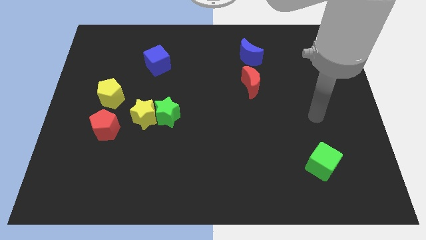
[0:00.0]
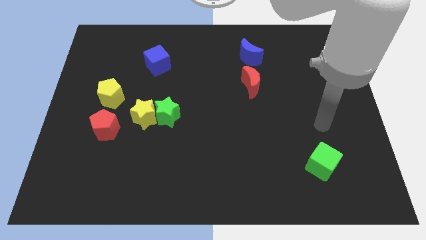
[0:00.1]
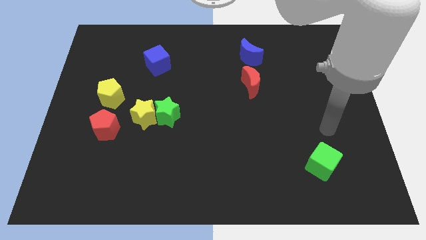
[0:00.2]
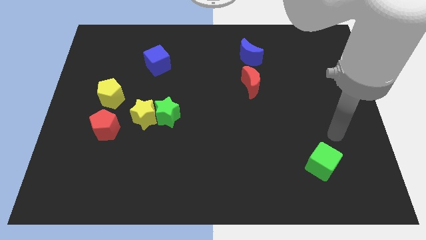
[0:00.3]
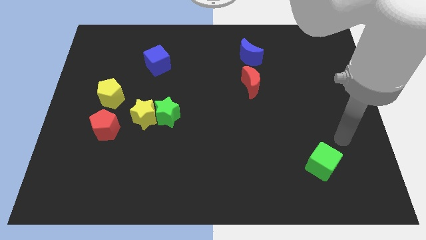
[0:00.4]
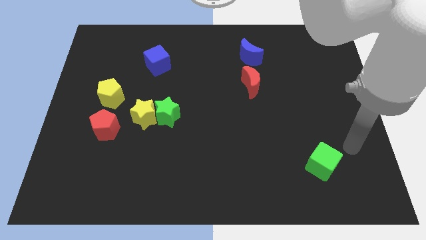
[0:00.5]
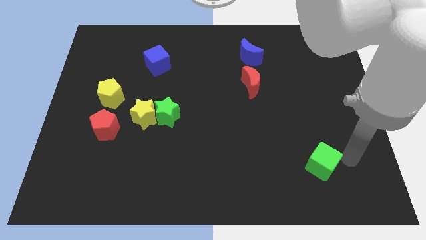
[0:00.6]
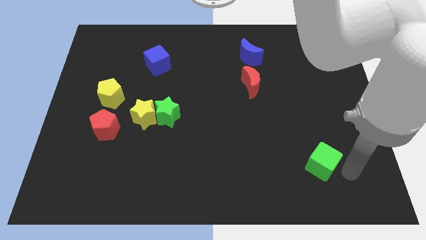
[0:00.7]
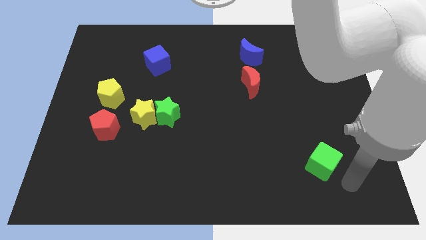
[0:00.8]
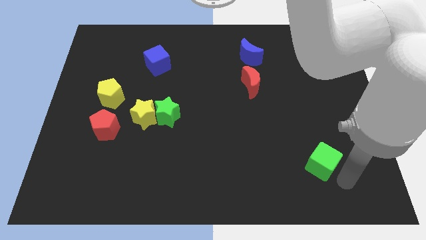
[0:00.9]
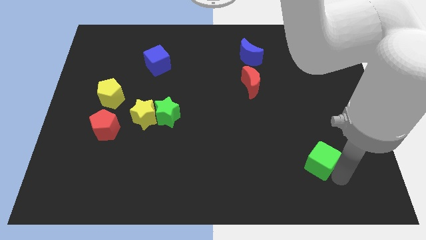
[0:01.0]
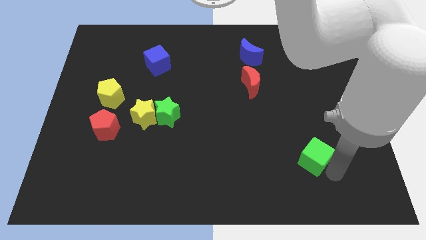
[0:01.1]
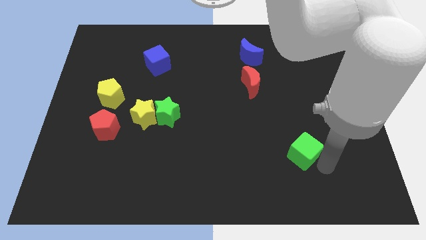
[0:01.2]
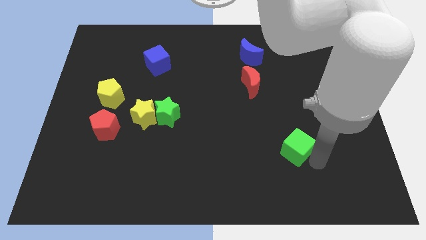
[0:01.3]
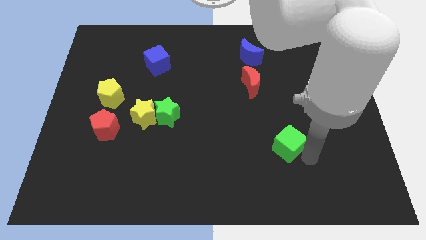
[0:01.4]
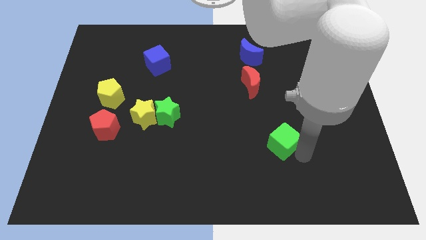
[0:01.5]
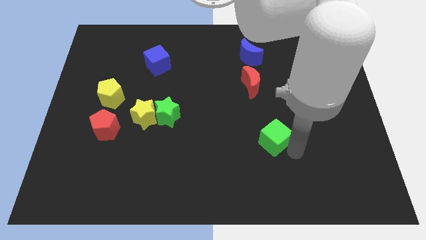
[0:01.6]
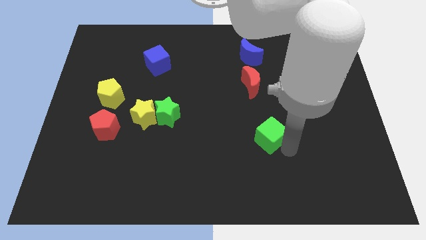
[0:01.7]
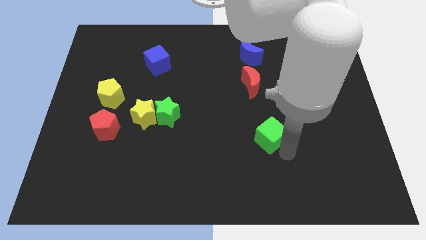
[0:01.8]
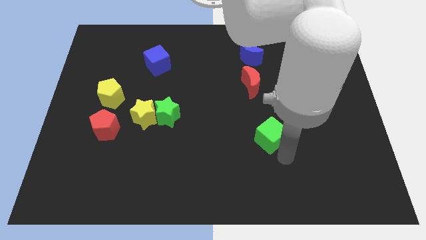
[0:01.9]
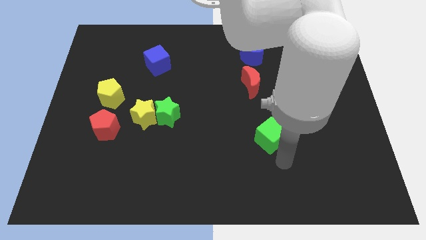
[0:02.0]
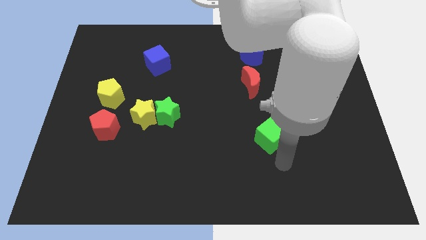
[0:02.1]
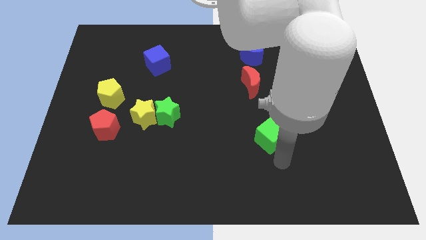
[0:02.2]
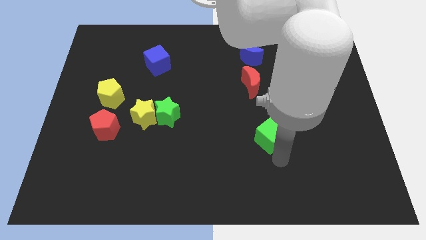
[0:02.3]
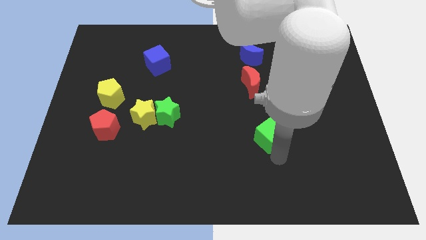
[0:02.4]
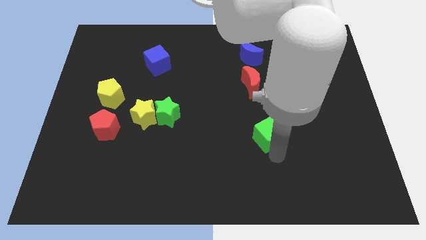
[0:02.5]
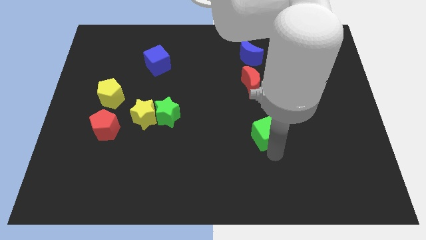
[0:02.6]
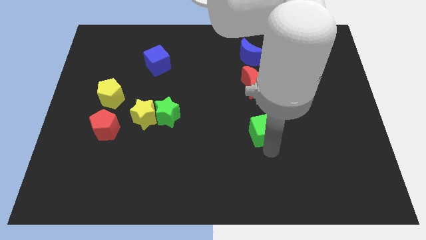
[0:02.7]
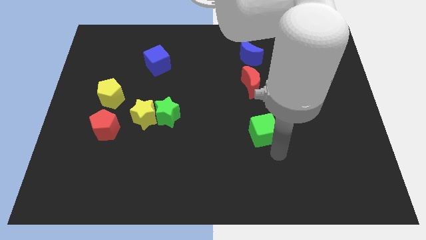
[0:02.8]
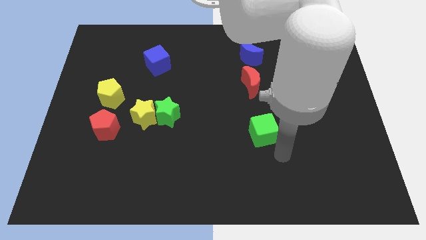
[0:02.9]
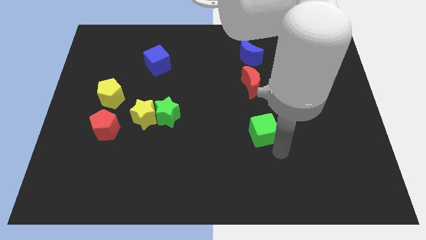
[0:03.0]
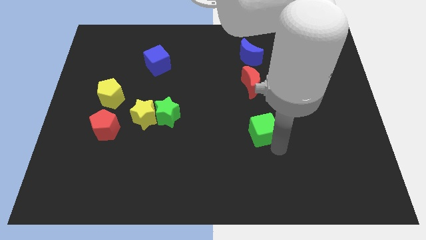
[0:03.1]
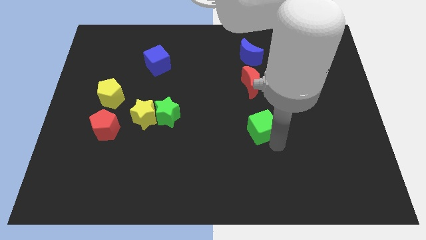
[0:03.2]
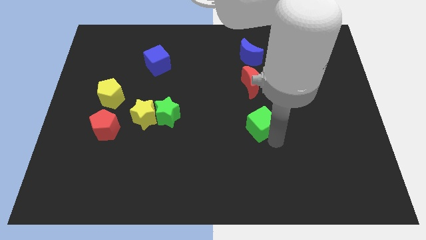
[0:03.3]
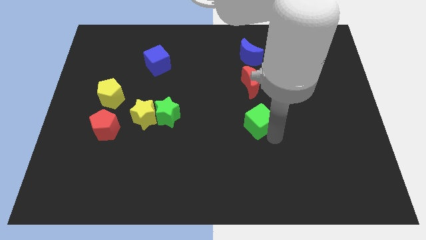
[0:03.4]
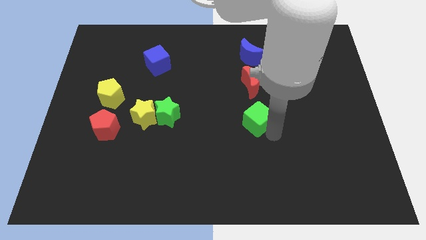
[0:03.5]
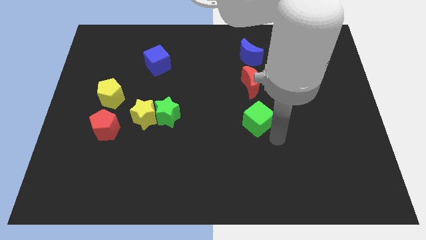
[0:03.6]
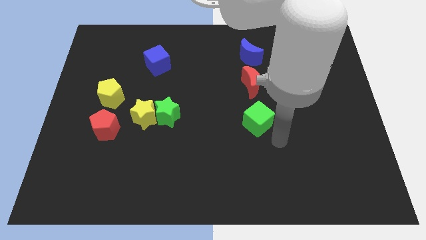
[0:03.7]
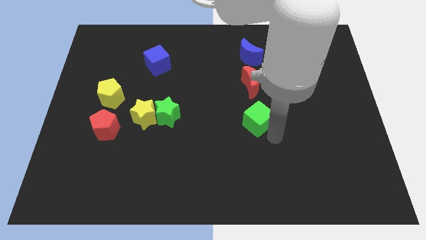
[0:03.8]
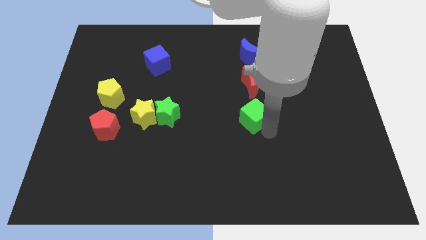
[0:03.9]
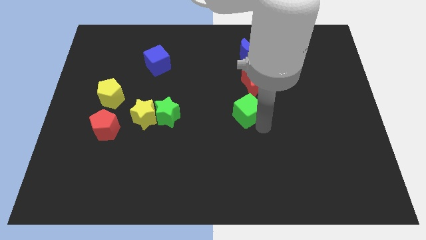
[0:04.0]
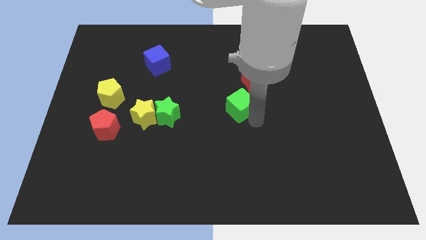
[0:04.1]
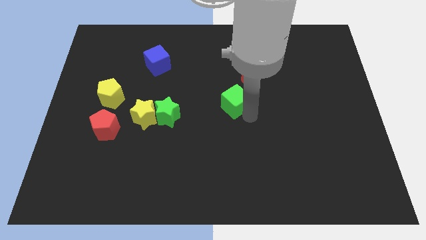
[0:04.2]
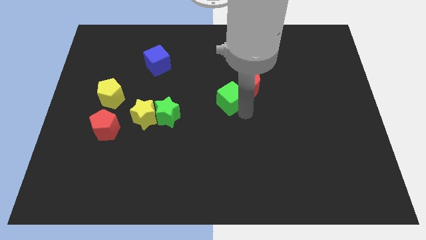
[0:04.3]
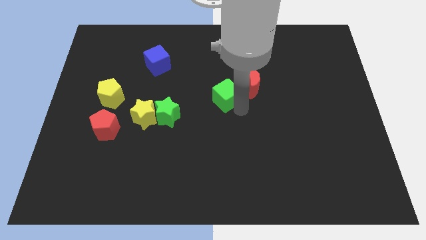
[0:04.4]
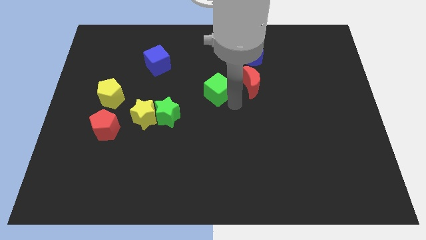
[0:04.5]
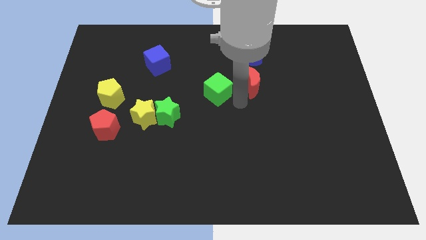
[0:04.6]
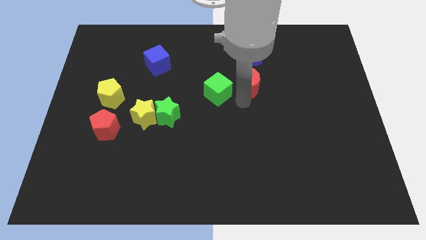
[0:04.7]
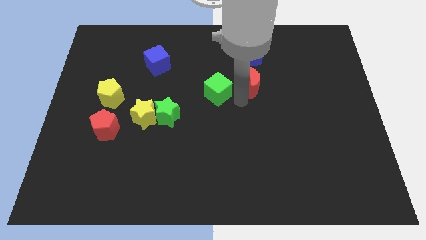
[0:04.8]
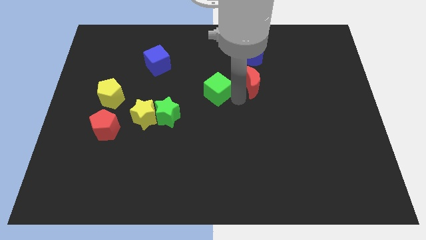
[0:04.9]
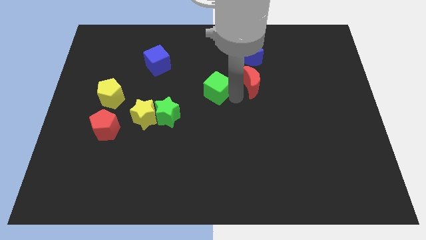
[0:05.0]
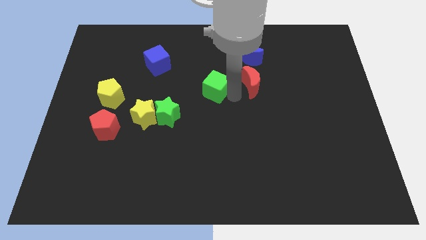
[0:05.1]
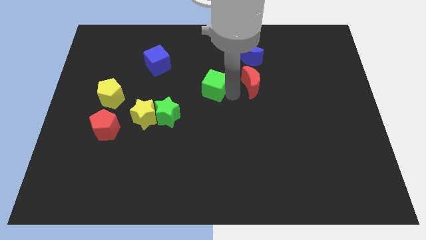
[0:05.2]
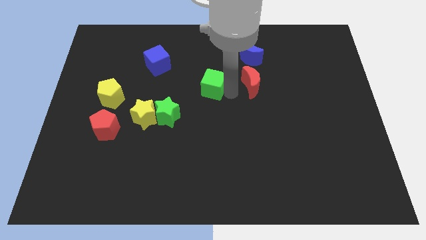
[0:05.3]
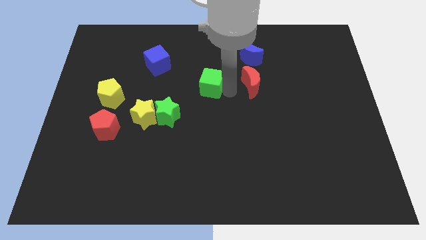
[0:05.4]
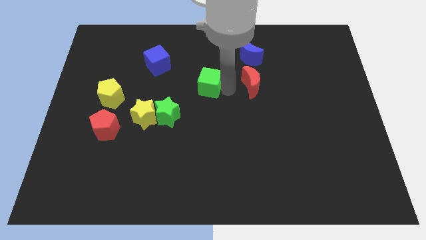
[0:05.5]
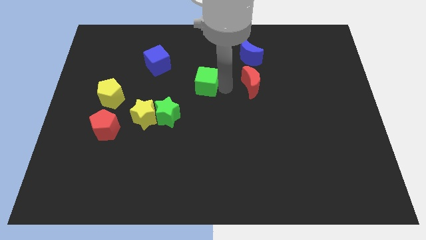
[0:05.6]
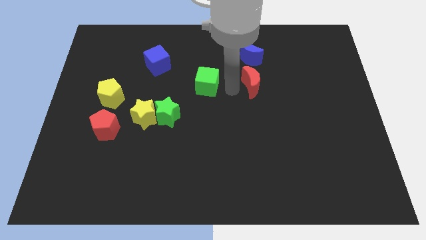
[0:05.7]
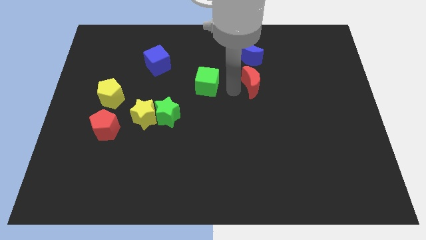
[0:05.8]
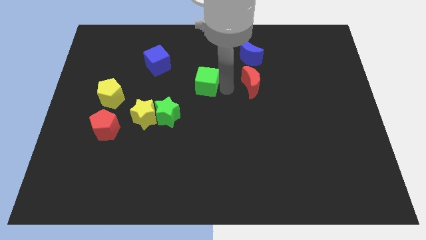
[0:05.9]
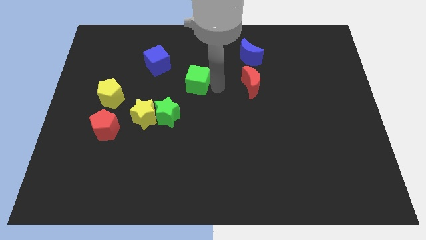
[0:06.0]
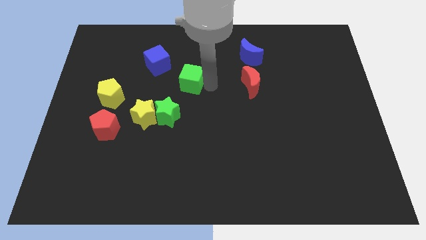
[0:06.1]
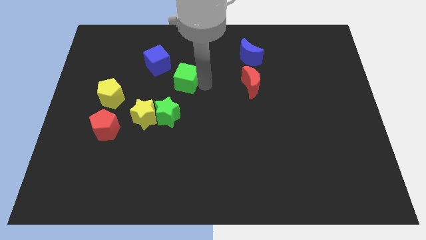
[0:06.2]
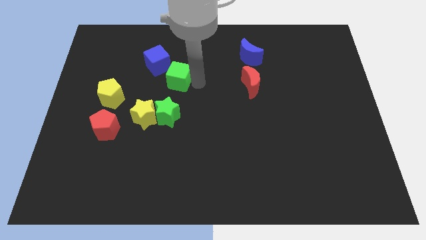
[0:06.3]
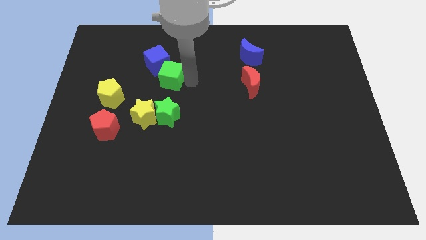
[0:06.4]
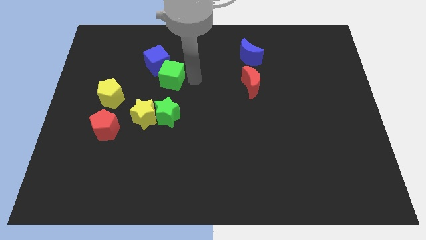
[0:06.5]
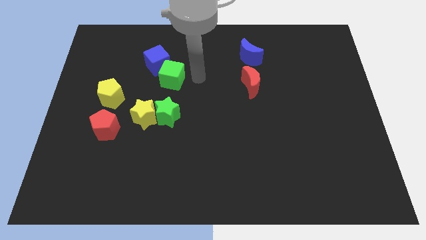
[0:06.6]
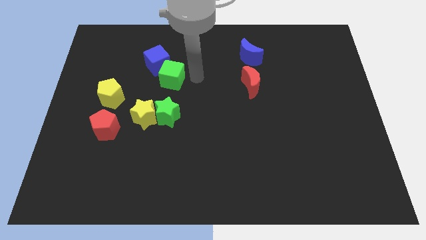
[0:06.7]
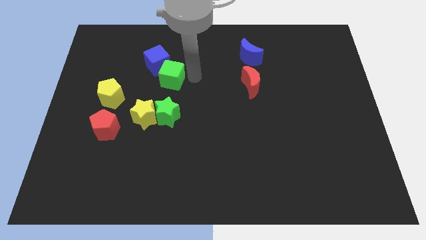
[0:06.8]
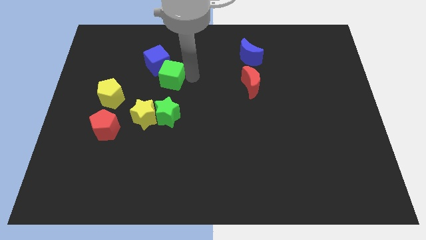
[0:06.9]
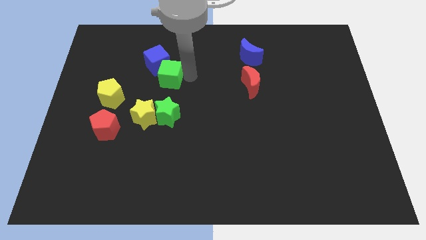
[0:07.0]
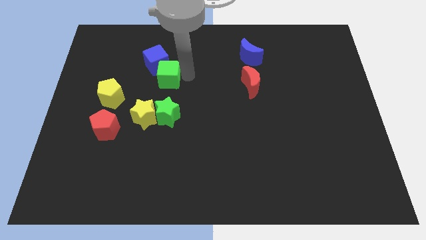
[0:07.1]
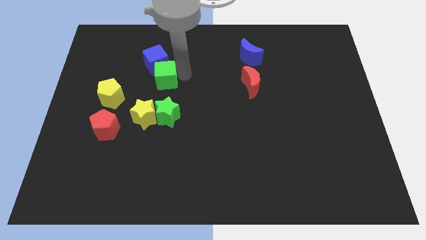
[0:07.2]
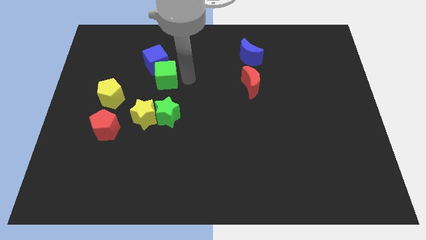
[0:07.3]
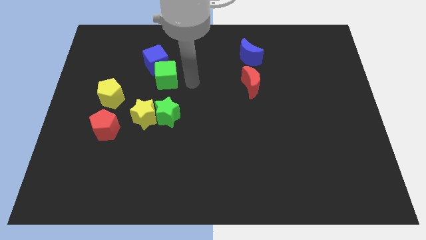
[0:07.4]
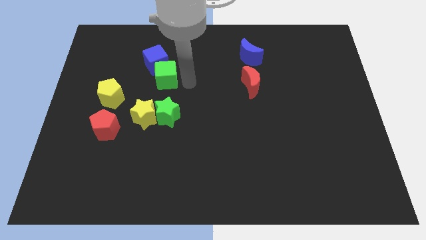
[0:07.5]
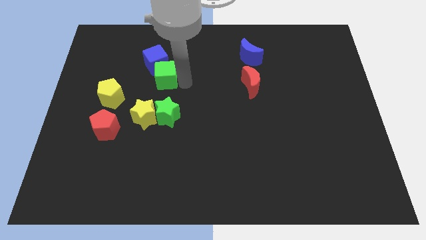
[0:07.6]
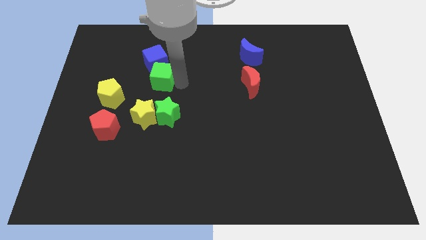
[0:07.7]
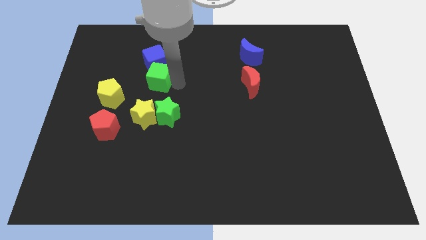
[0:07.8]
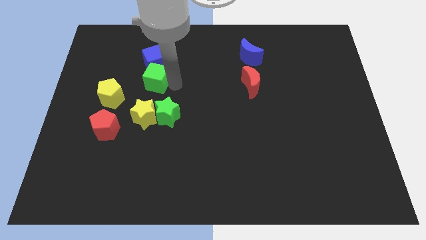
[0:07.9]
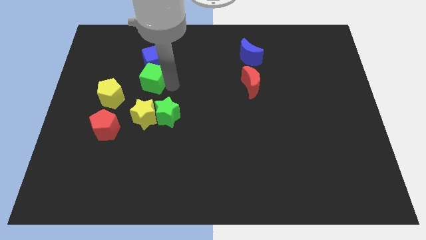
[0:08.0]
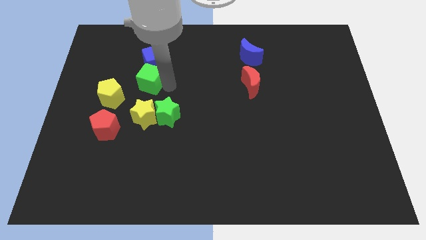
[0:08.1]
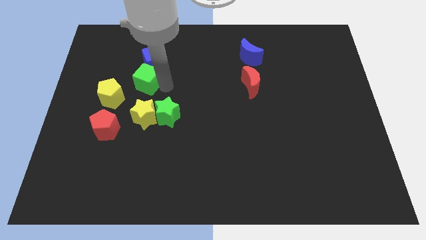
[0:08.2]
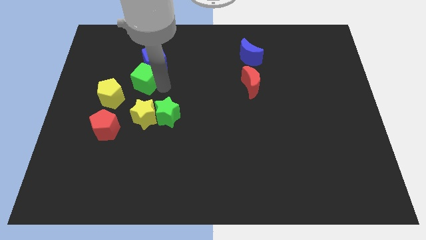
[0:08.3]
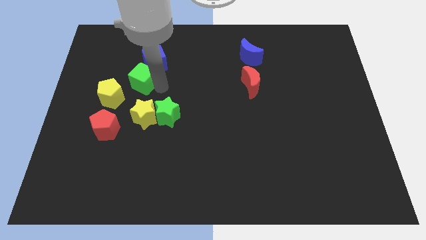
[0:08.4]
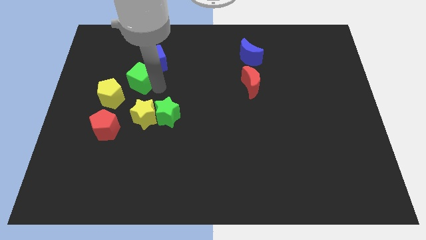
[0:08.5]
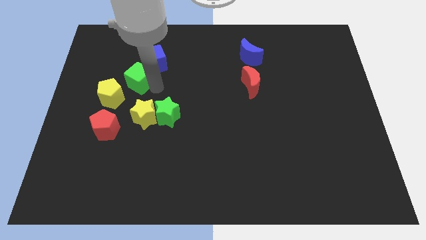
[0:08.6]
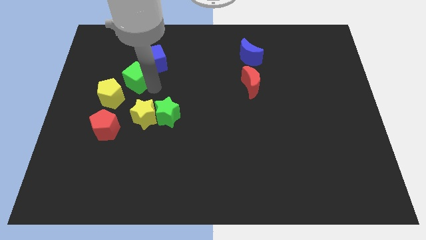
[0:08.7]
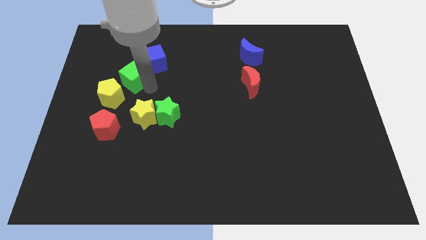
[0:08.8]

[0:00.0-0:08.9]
put the green cube to the top side of the yellow pentagon
